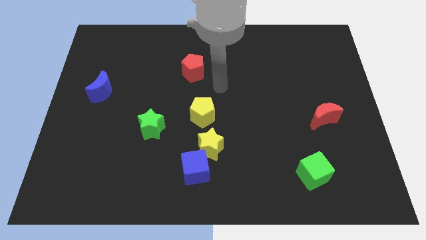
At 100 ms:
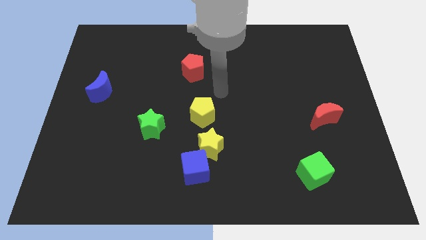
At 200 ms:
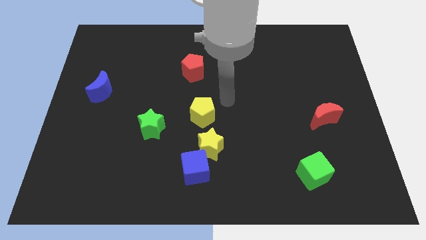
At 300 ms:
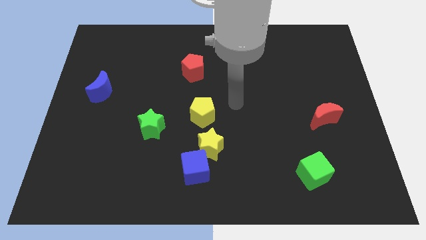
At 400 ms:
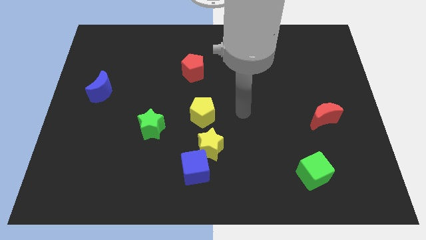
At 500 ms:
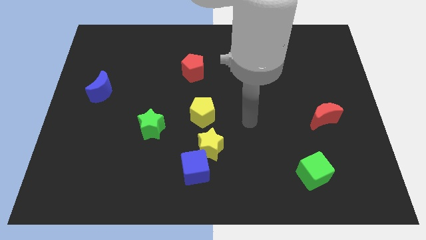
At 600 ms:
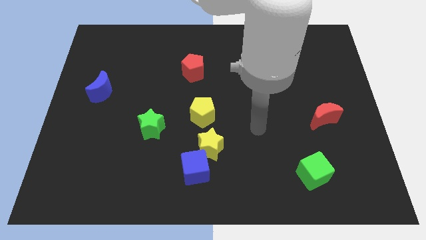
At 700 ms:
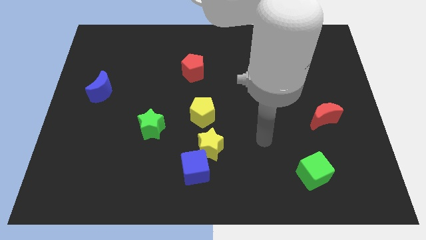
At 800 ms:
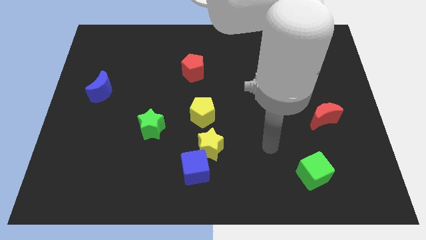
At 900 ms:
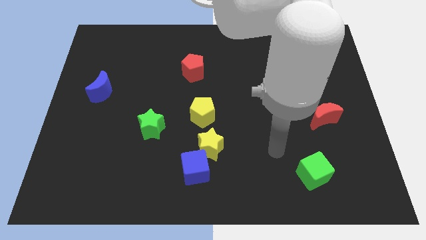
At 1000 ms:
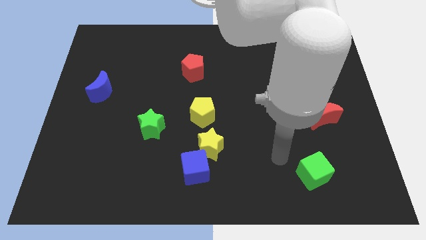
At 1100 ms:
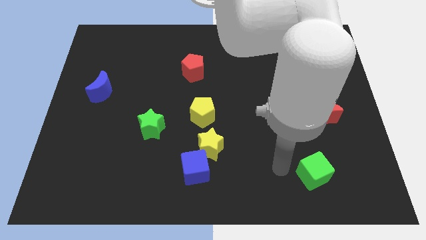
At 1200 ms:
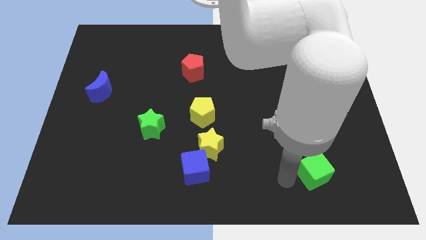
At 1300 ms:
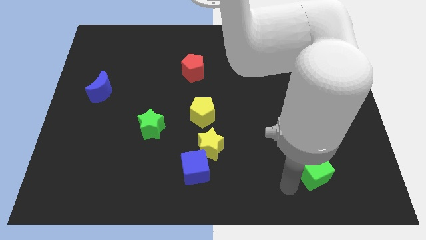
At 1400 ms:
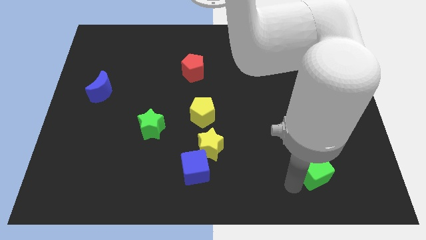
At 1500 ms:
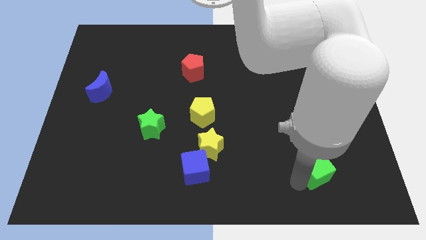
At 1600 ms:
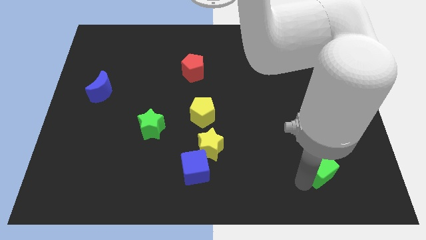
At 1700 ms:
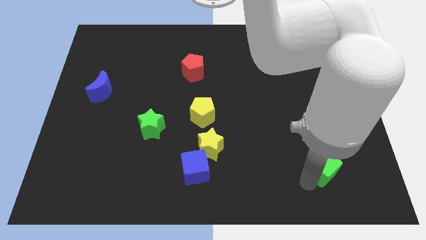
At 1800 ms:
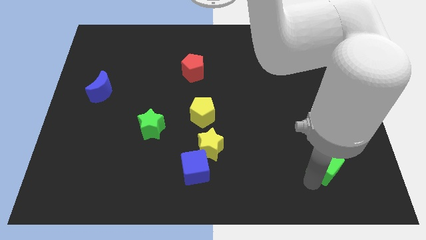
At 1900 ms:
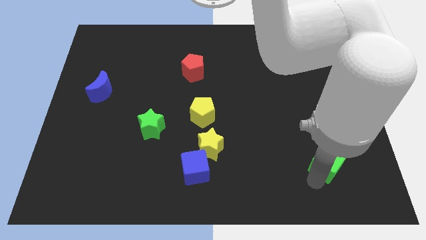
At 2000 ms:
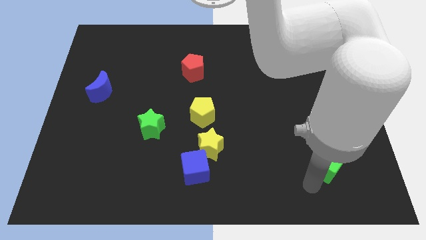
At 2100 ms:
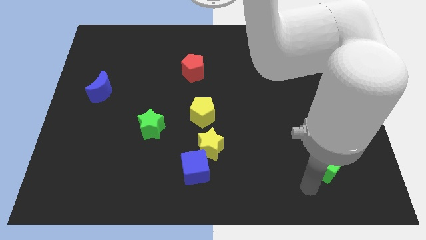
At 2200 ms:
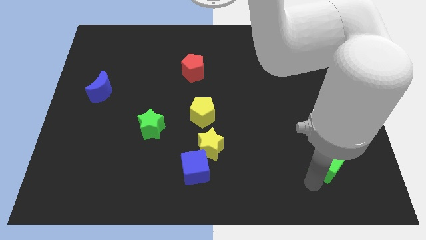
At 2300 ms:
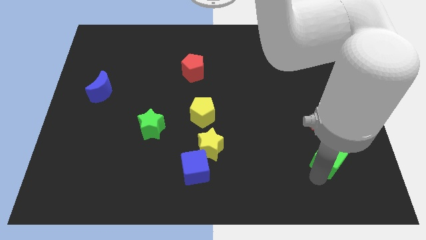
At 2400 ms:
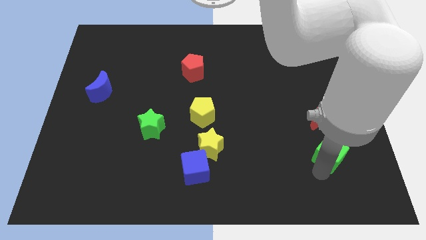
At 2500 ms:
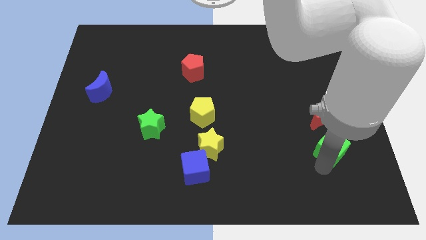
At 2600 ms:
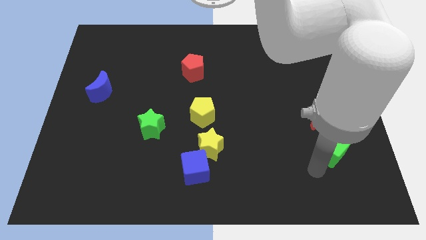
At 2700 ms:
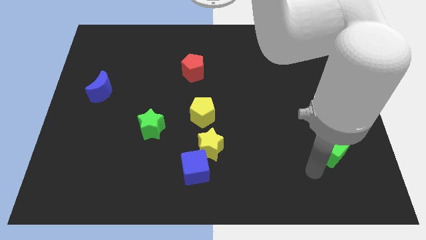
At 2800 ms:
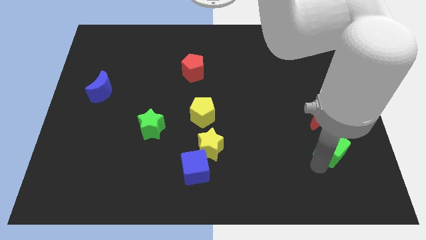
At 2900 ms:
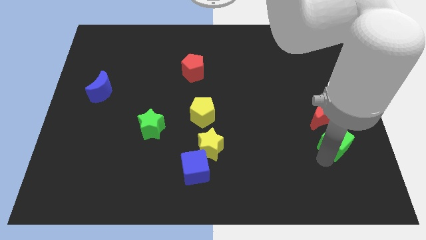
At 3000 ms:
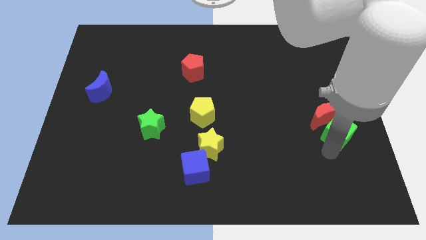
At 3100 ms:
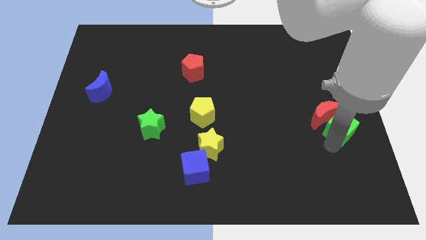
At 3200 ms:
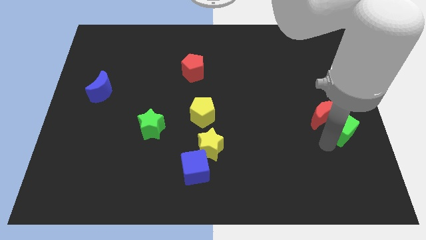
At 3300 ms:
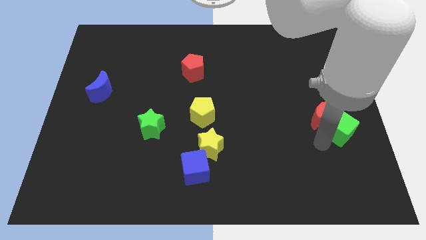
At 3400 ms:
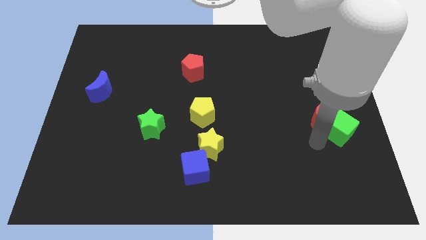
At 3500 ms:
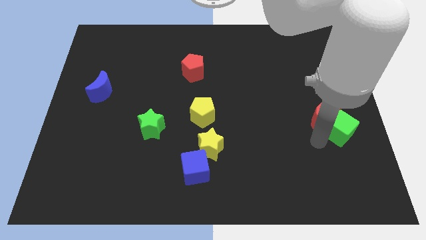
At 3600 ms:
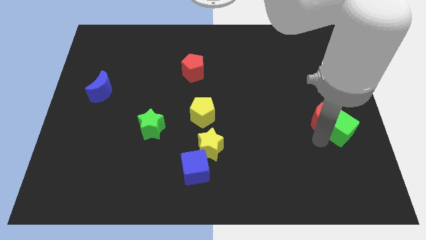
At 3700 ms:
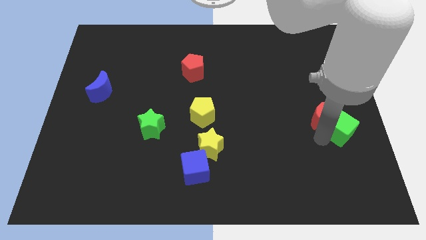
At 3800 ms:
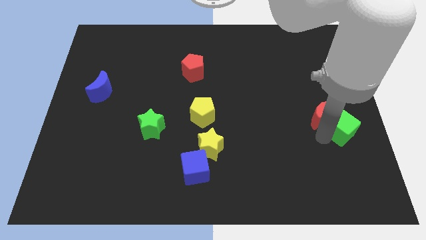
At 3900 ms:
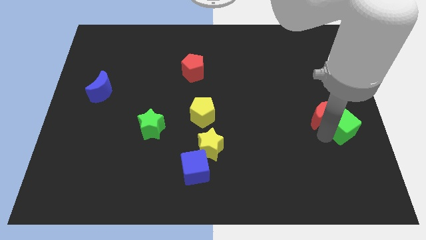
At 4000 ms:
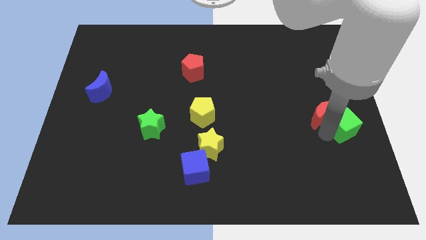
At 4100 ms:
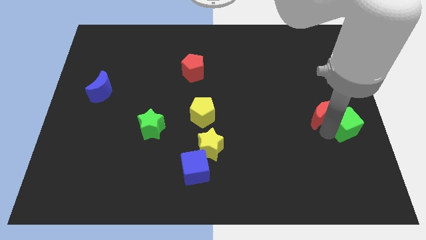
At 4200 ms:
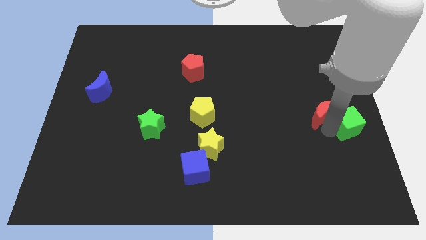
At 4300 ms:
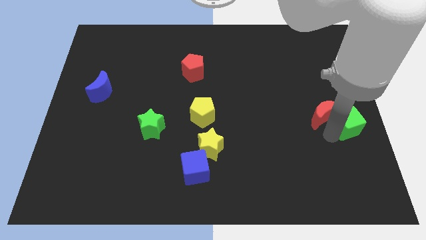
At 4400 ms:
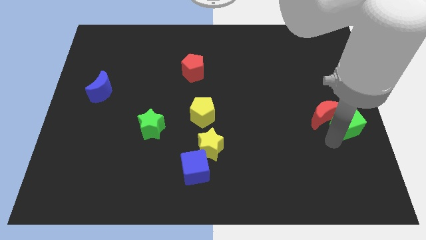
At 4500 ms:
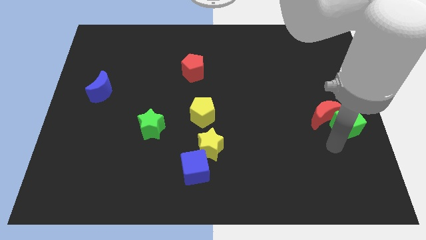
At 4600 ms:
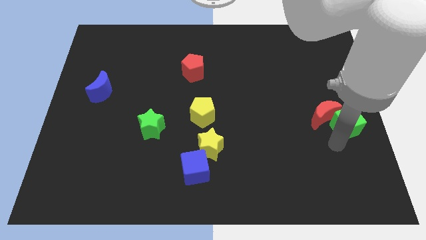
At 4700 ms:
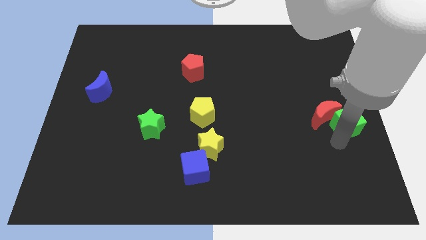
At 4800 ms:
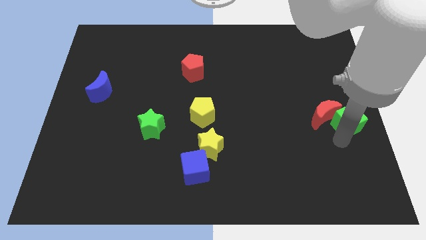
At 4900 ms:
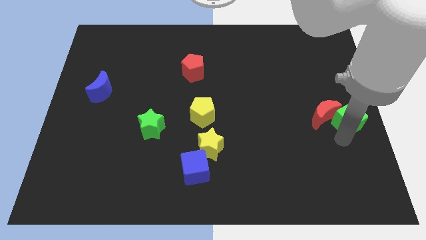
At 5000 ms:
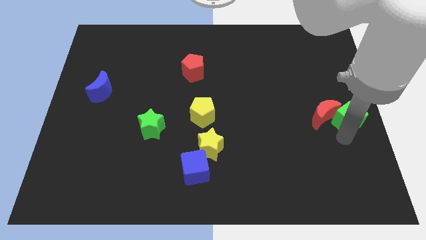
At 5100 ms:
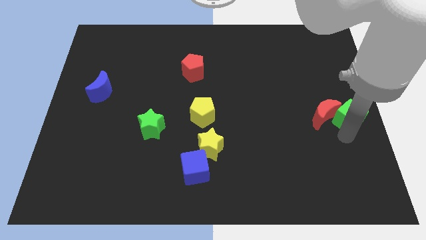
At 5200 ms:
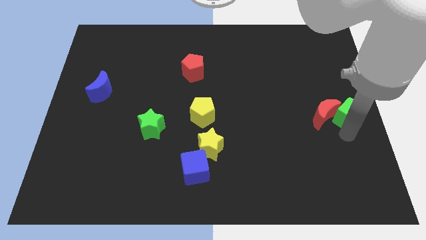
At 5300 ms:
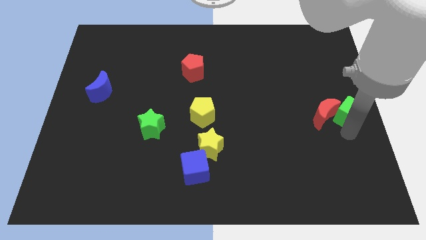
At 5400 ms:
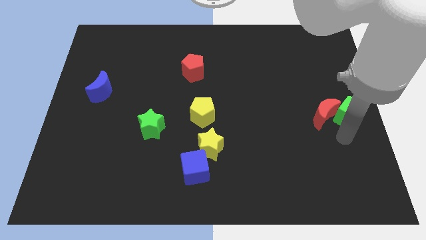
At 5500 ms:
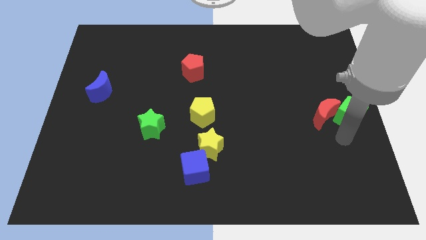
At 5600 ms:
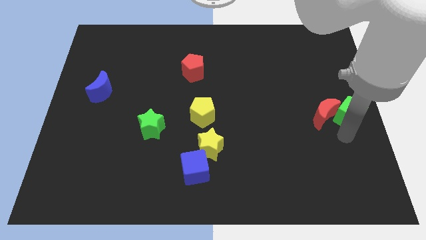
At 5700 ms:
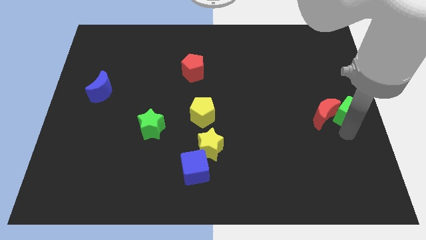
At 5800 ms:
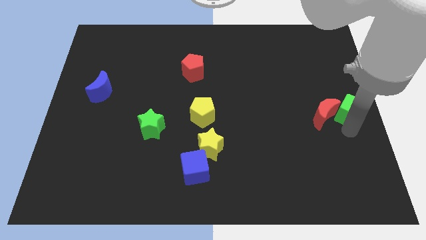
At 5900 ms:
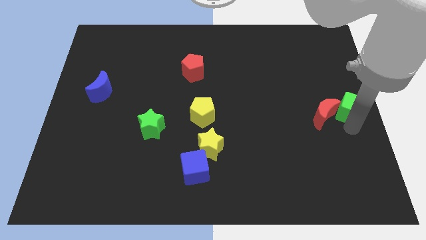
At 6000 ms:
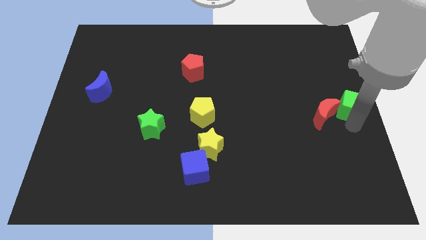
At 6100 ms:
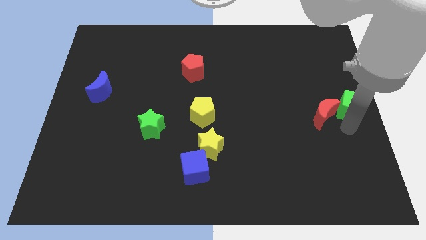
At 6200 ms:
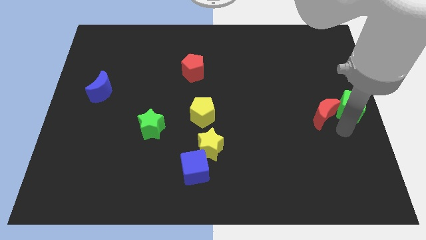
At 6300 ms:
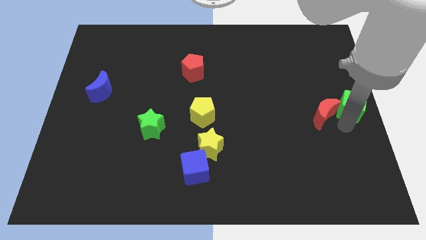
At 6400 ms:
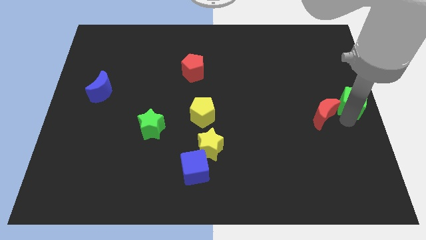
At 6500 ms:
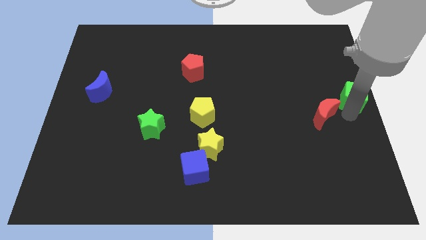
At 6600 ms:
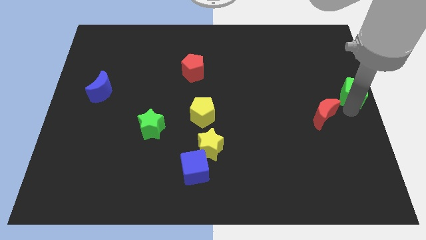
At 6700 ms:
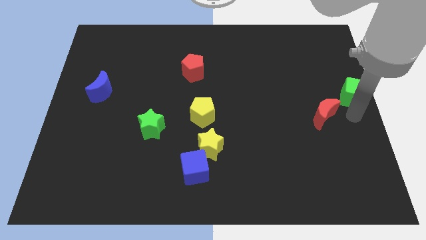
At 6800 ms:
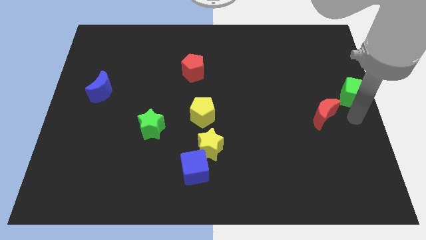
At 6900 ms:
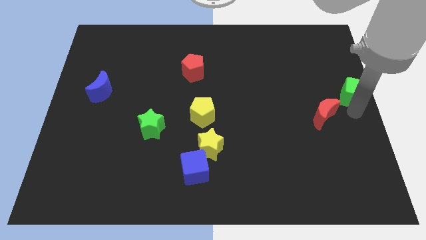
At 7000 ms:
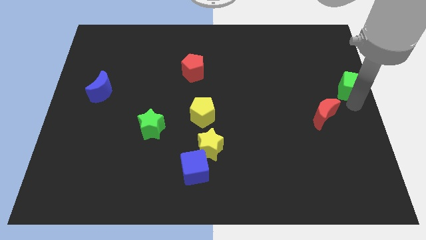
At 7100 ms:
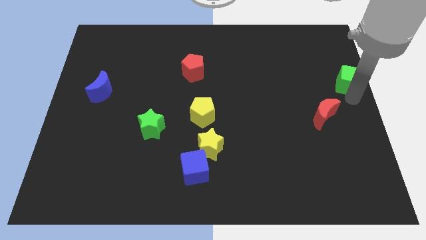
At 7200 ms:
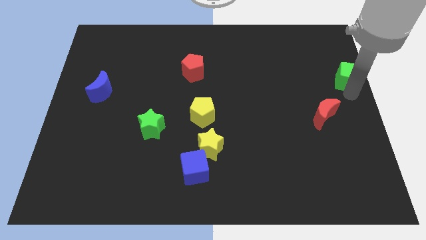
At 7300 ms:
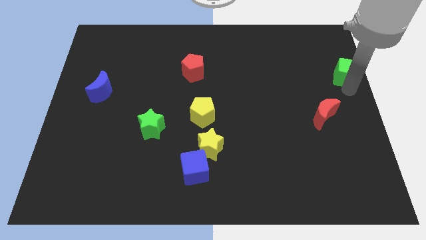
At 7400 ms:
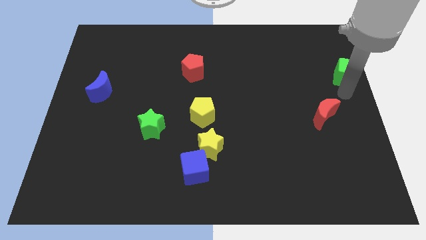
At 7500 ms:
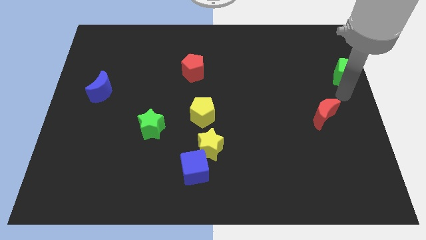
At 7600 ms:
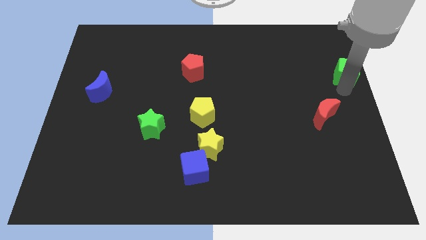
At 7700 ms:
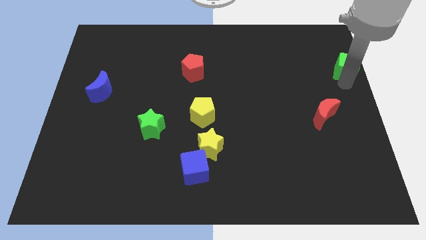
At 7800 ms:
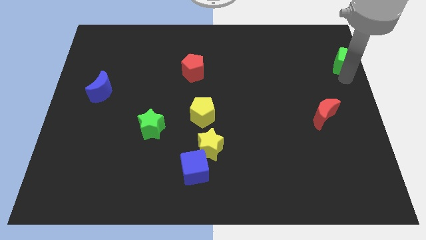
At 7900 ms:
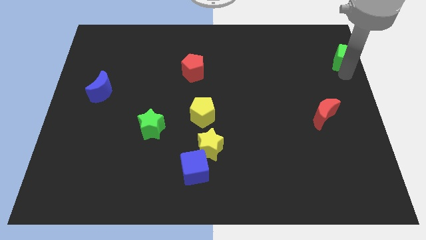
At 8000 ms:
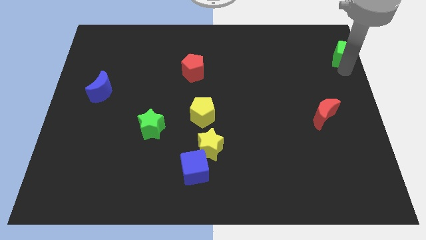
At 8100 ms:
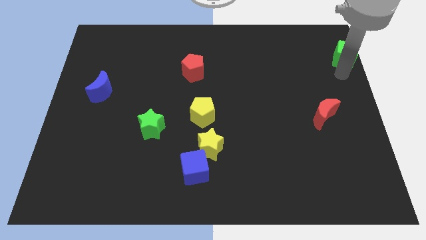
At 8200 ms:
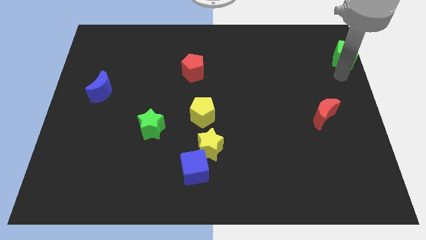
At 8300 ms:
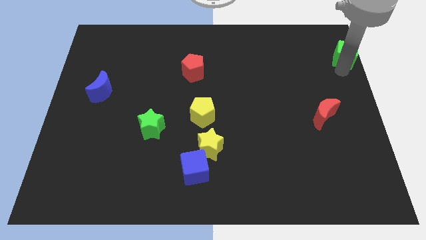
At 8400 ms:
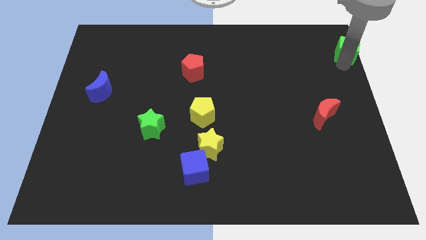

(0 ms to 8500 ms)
push the green cube to the top right corner
